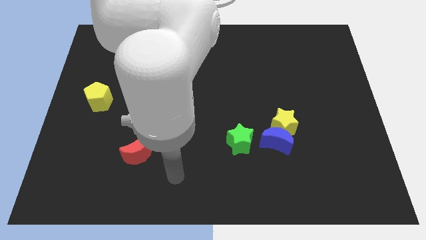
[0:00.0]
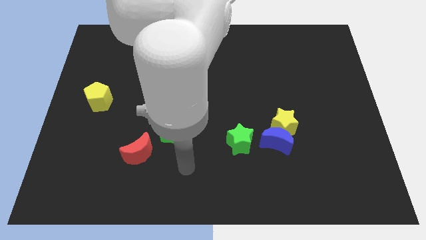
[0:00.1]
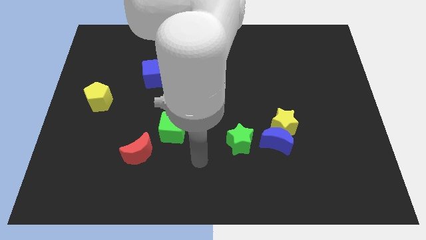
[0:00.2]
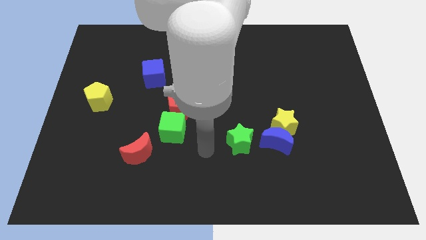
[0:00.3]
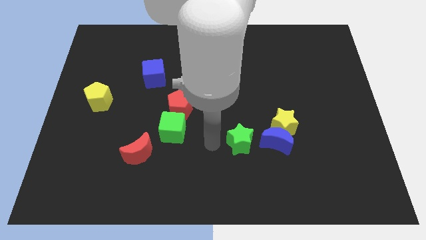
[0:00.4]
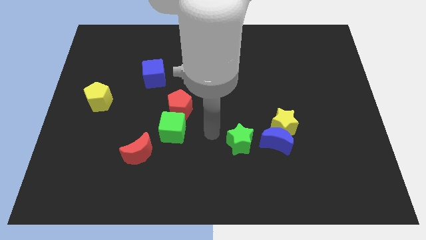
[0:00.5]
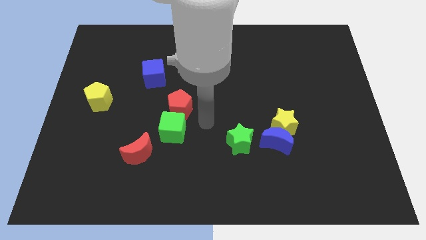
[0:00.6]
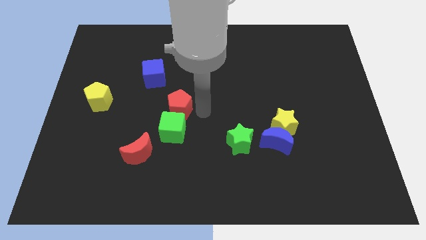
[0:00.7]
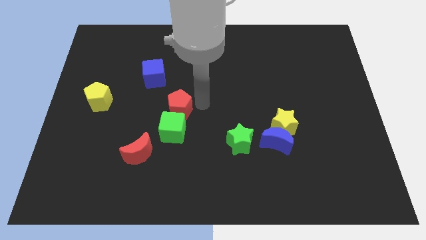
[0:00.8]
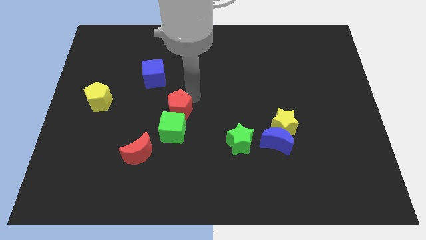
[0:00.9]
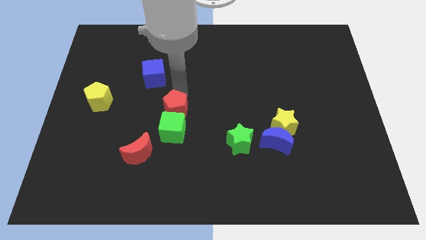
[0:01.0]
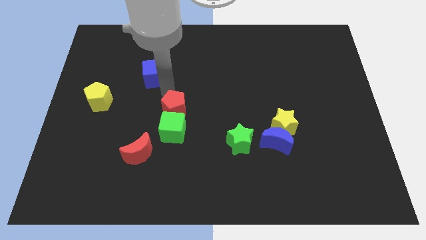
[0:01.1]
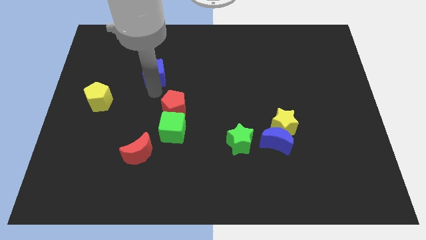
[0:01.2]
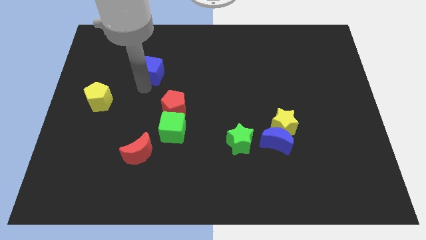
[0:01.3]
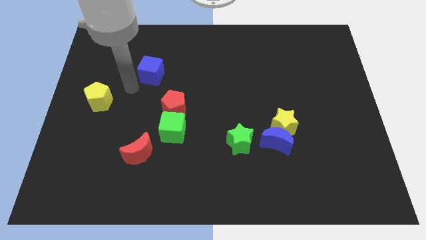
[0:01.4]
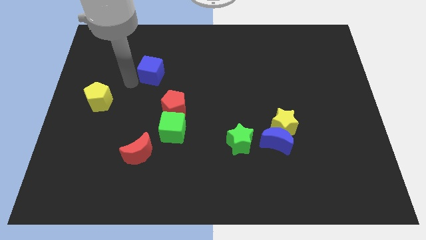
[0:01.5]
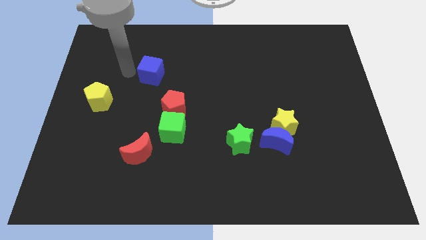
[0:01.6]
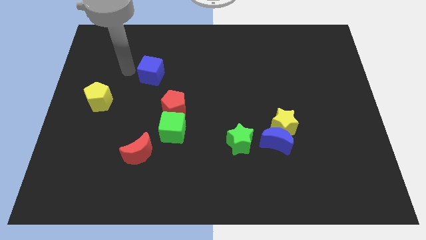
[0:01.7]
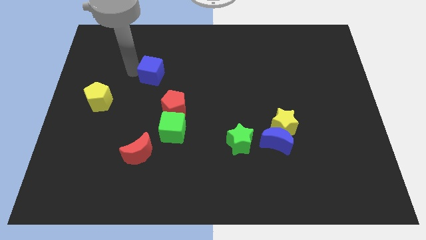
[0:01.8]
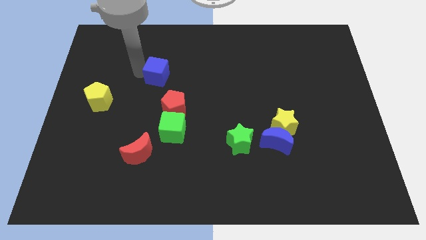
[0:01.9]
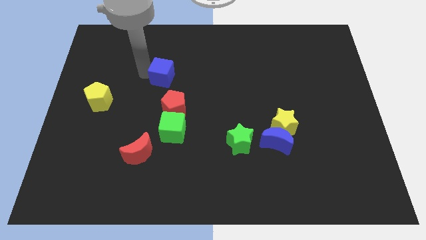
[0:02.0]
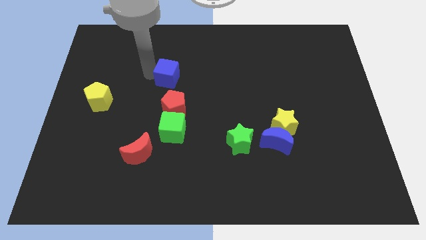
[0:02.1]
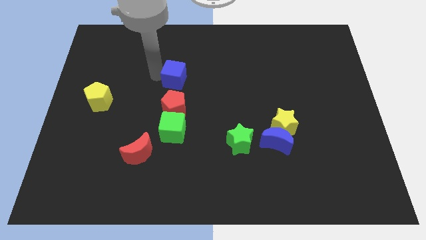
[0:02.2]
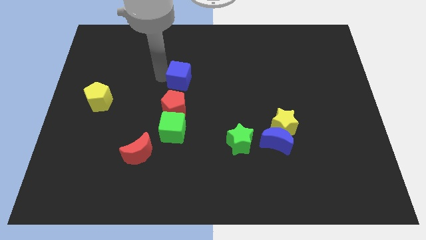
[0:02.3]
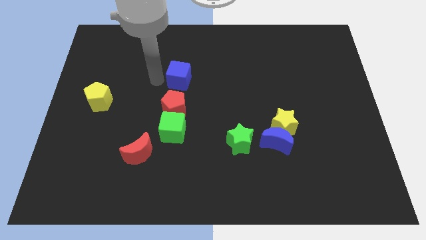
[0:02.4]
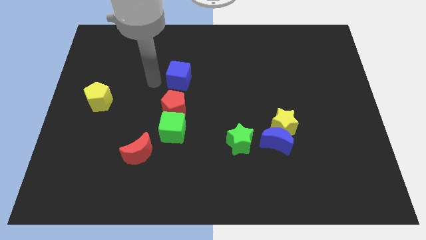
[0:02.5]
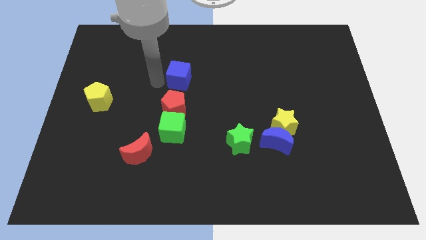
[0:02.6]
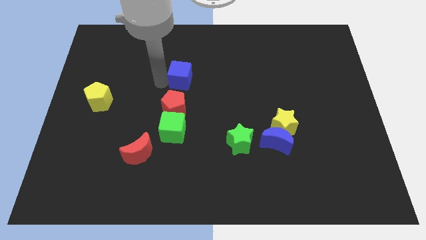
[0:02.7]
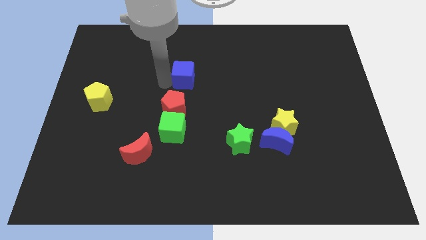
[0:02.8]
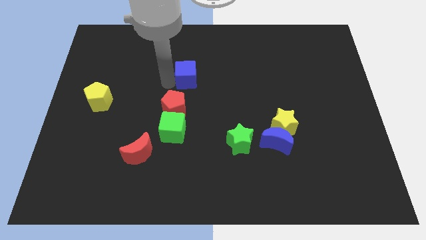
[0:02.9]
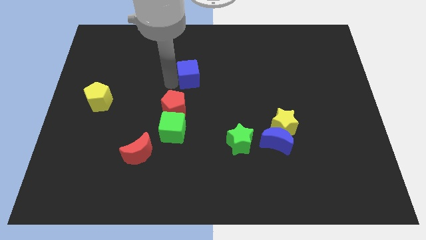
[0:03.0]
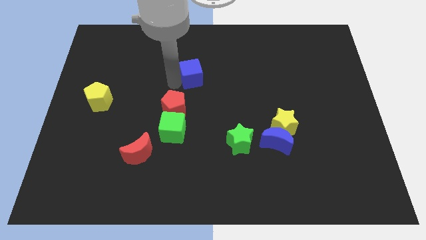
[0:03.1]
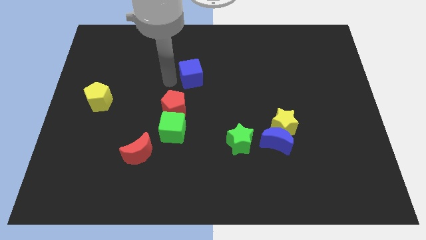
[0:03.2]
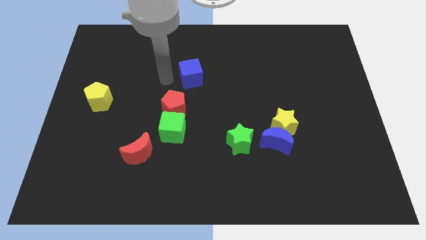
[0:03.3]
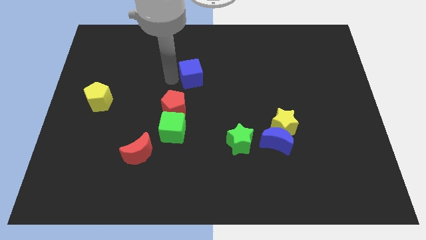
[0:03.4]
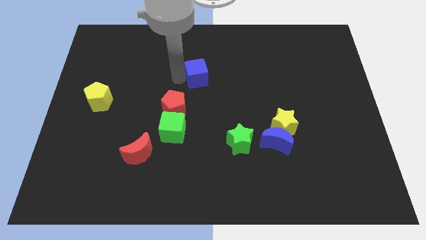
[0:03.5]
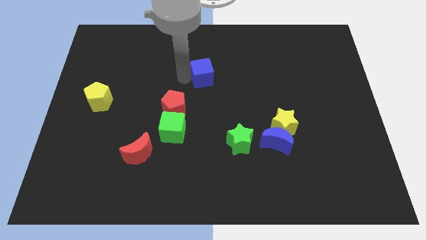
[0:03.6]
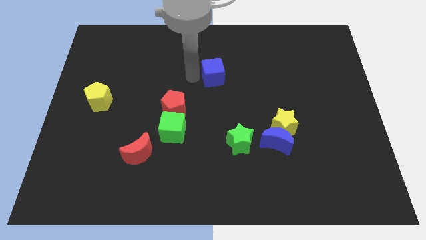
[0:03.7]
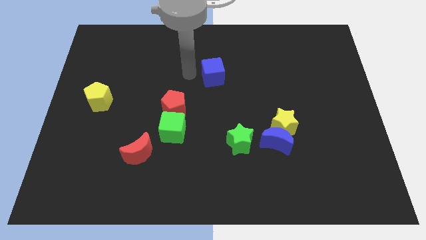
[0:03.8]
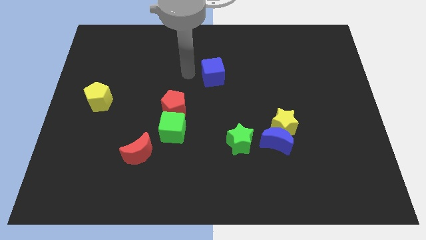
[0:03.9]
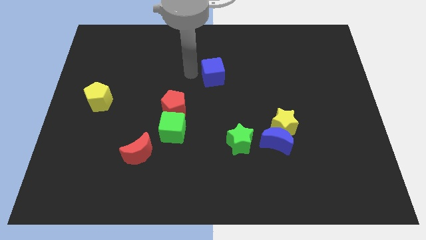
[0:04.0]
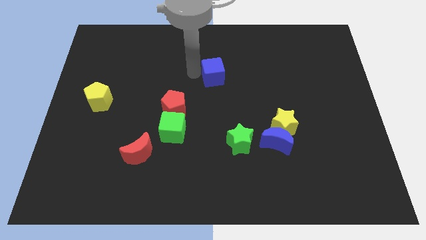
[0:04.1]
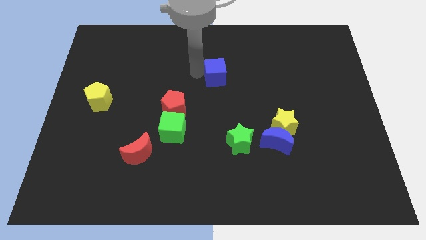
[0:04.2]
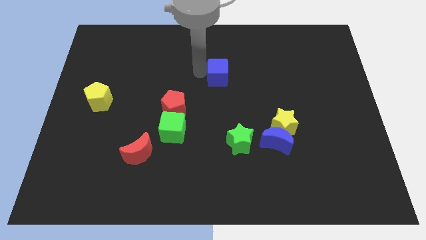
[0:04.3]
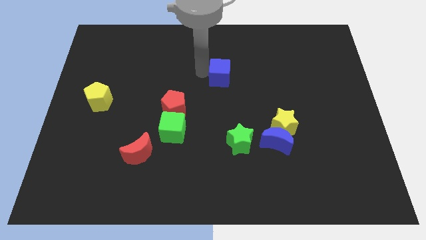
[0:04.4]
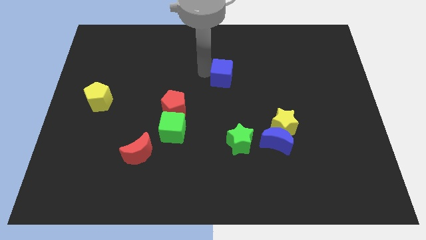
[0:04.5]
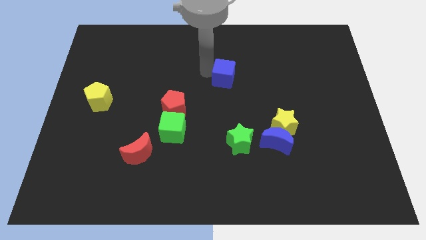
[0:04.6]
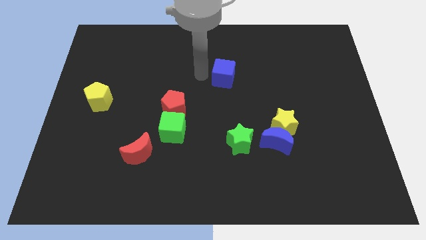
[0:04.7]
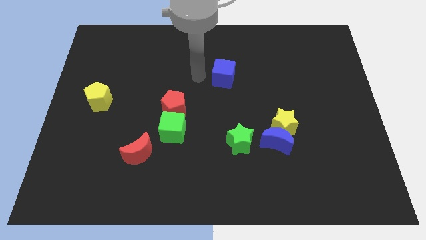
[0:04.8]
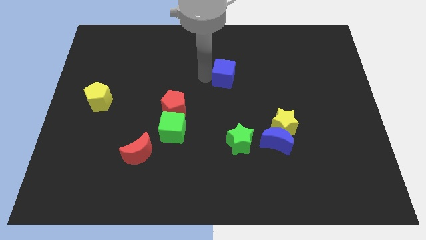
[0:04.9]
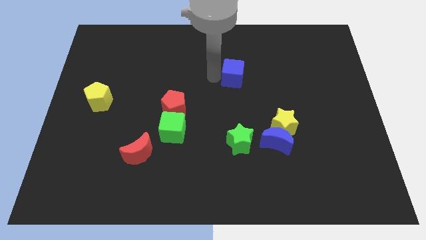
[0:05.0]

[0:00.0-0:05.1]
push the blue cube right

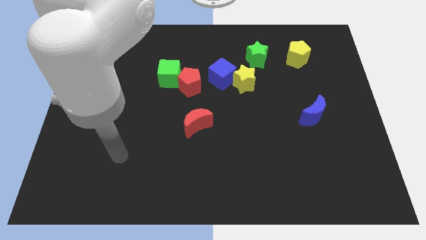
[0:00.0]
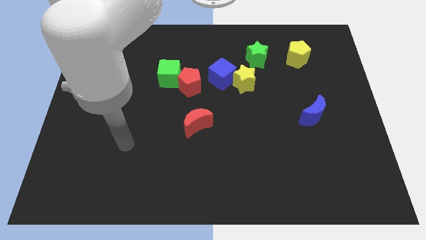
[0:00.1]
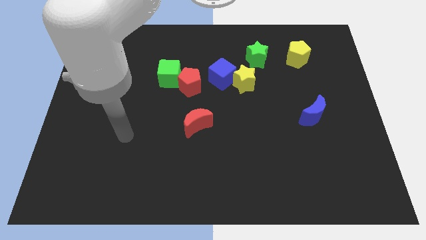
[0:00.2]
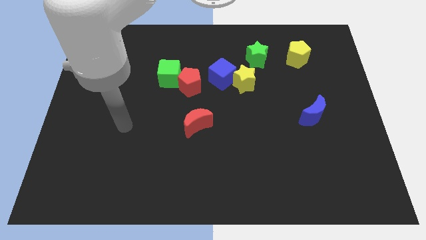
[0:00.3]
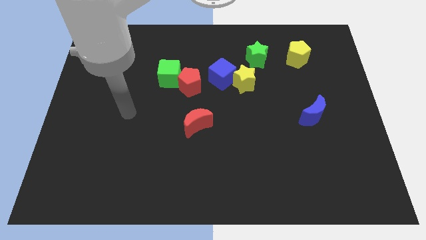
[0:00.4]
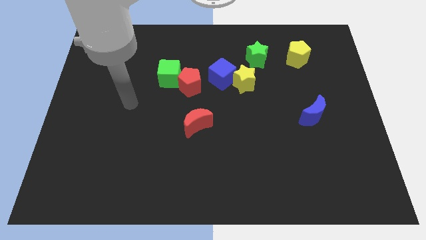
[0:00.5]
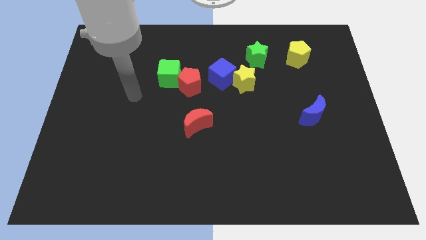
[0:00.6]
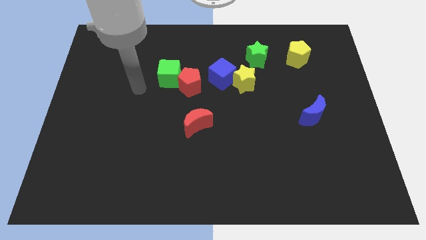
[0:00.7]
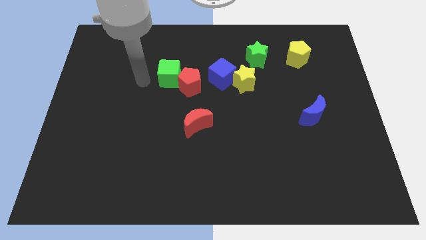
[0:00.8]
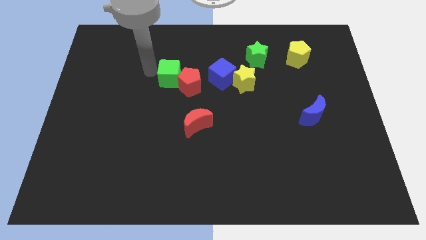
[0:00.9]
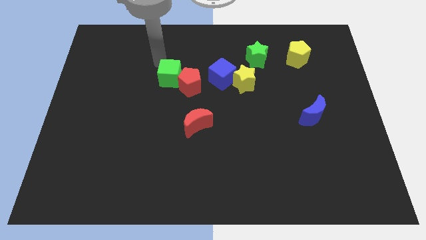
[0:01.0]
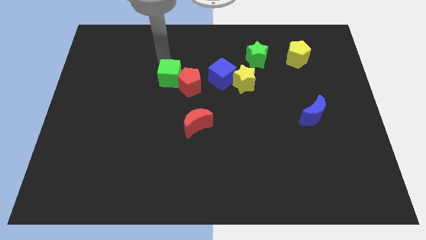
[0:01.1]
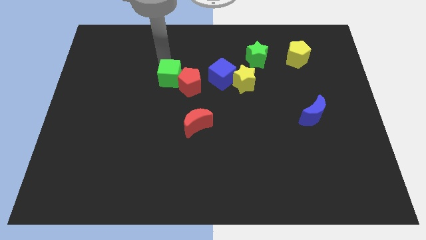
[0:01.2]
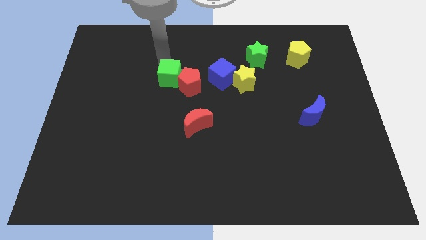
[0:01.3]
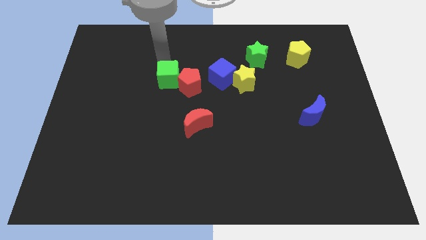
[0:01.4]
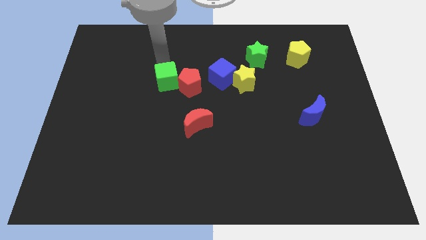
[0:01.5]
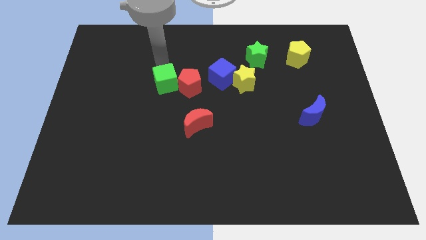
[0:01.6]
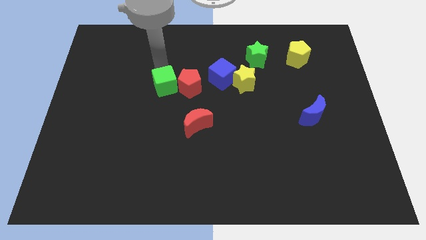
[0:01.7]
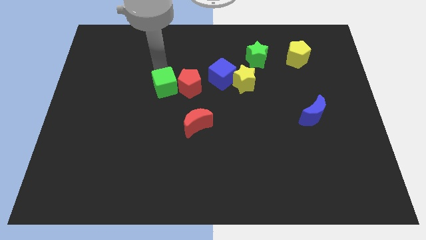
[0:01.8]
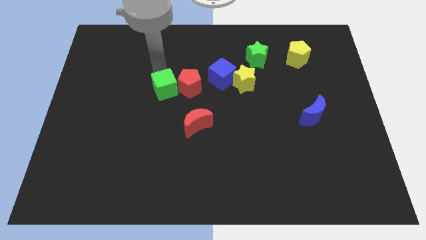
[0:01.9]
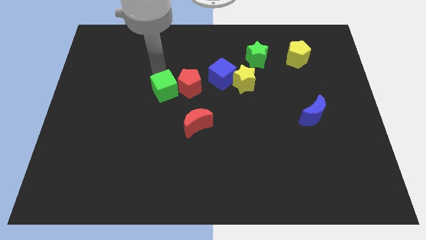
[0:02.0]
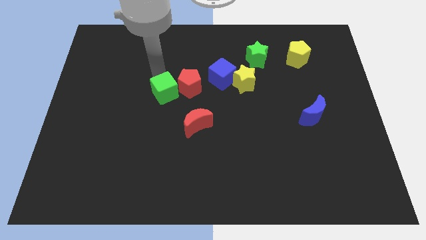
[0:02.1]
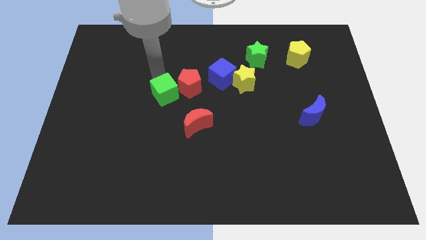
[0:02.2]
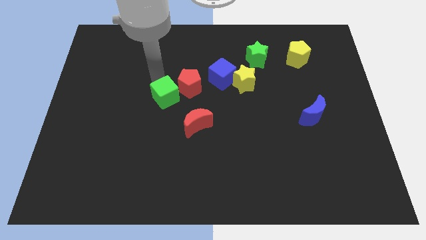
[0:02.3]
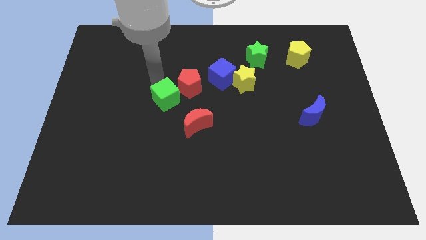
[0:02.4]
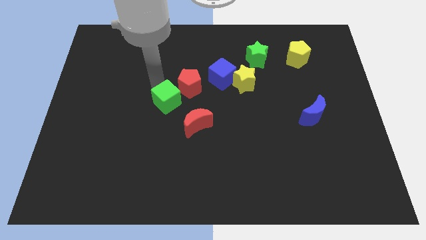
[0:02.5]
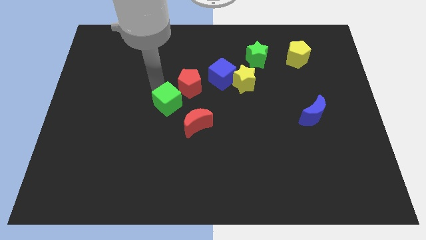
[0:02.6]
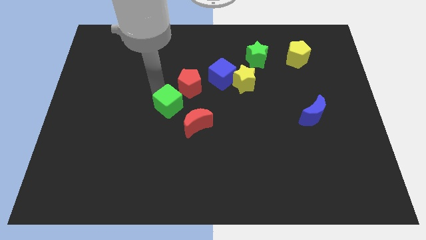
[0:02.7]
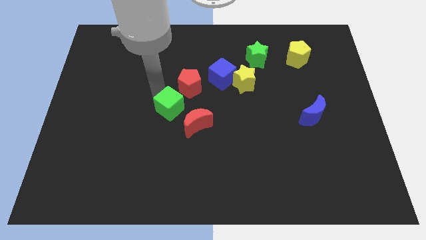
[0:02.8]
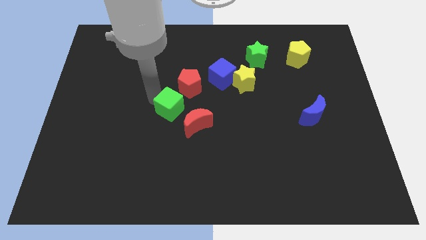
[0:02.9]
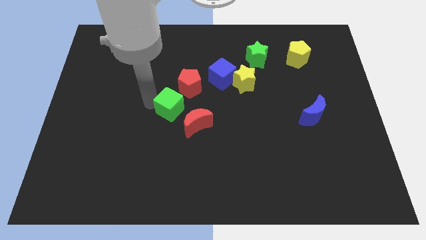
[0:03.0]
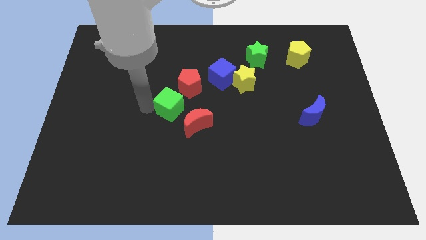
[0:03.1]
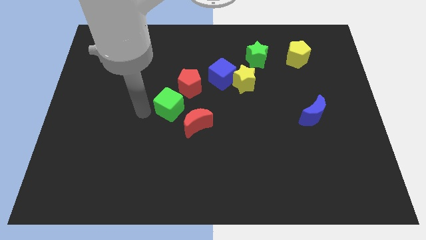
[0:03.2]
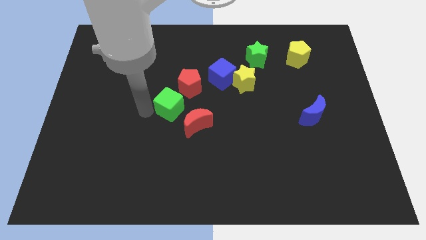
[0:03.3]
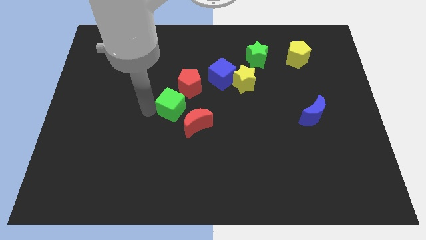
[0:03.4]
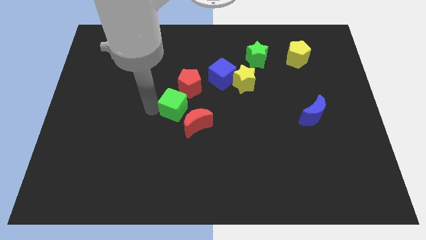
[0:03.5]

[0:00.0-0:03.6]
slide the green cube down and right somewhat
